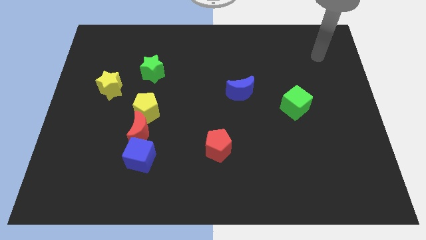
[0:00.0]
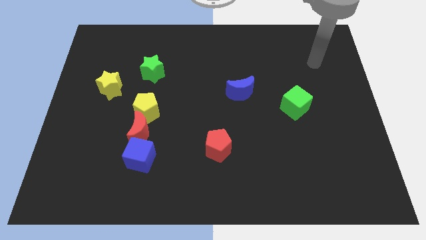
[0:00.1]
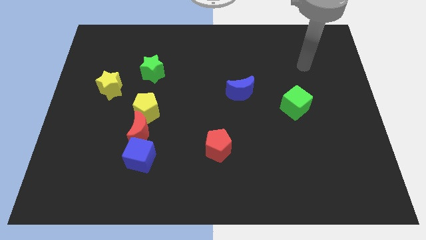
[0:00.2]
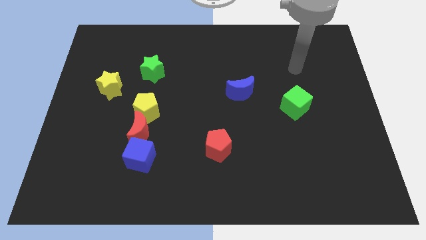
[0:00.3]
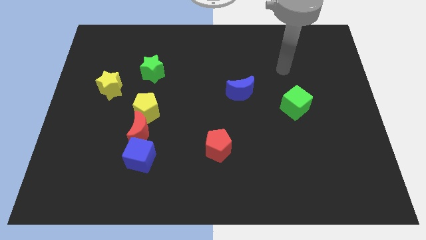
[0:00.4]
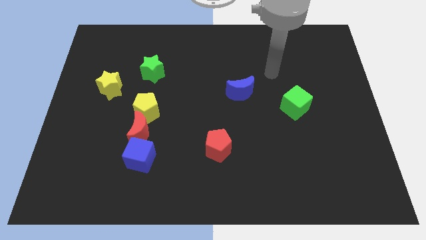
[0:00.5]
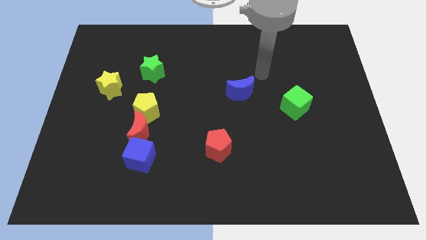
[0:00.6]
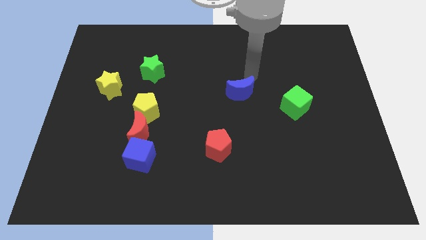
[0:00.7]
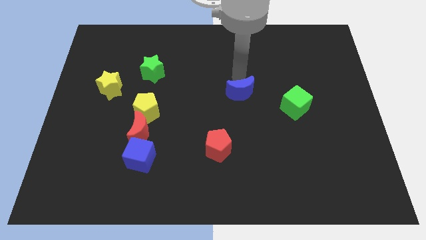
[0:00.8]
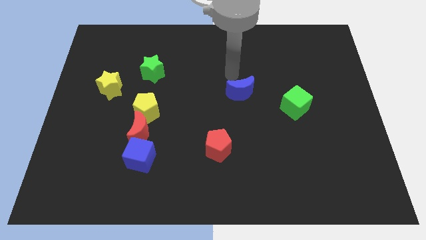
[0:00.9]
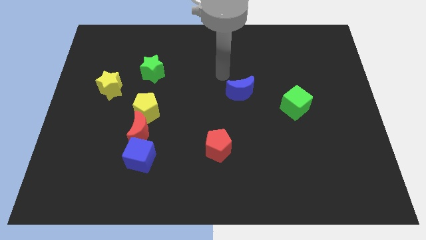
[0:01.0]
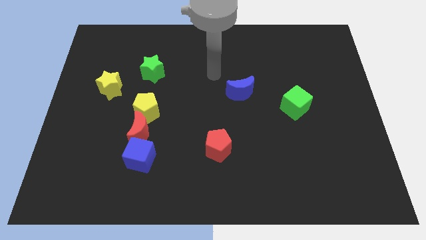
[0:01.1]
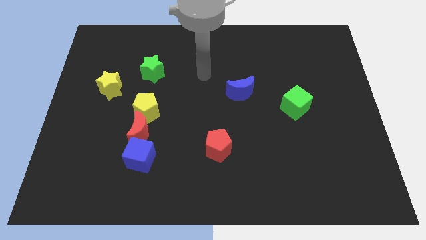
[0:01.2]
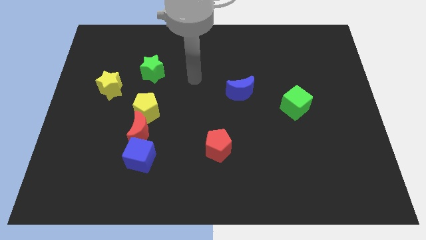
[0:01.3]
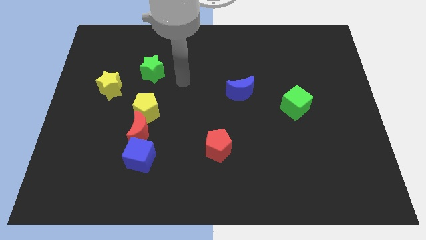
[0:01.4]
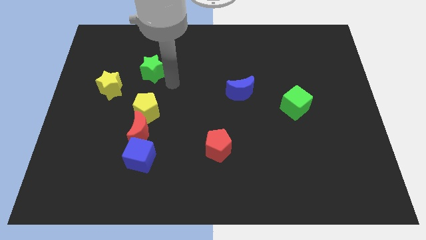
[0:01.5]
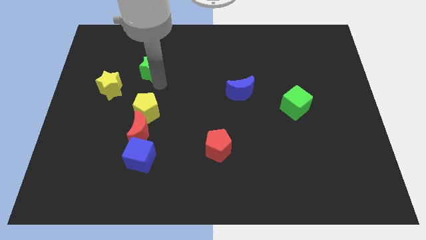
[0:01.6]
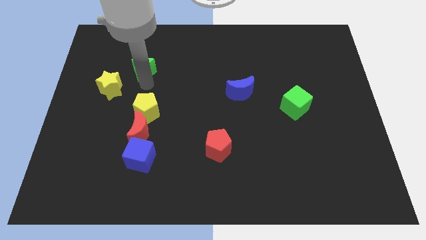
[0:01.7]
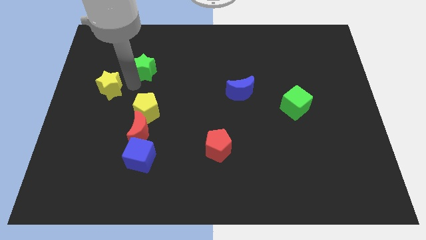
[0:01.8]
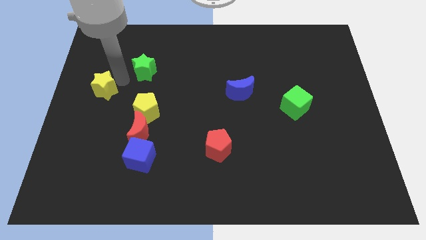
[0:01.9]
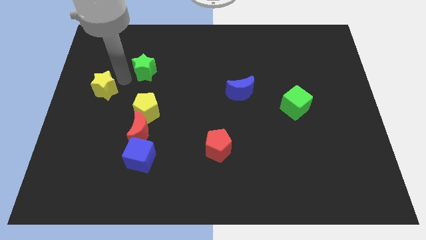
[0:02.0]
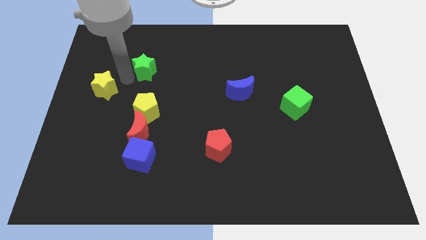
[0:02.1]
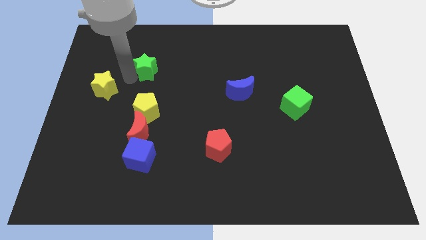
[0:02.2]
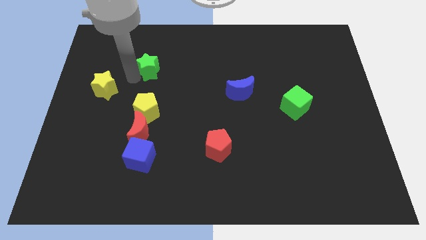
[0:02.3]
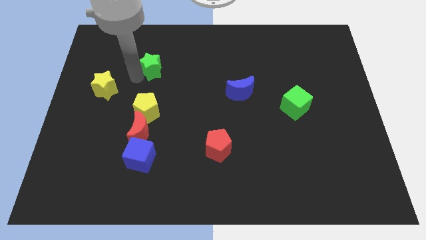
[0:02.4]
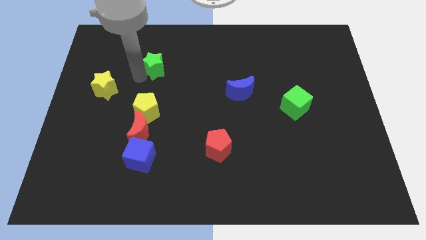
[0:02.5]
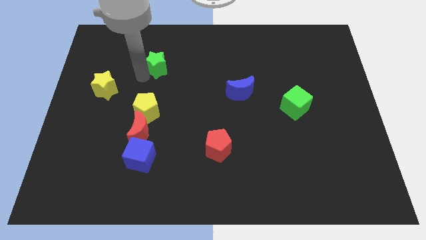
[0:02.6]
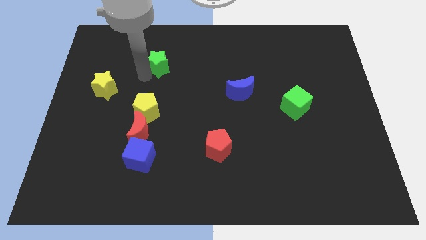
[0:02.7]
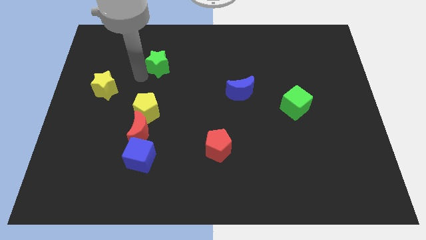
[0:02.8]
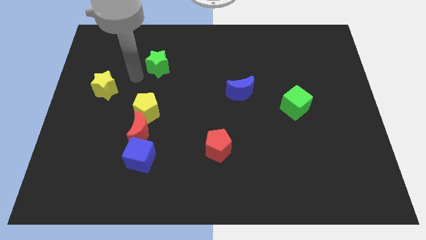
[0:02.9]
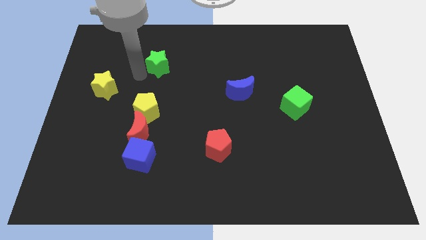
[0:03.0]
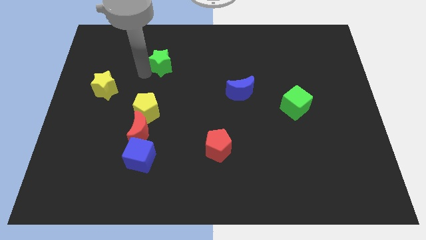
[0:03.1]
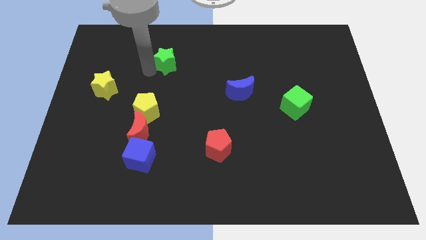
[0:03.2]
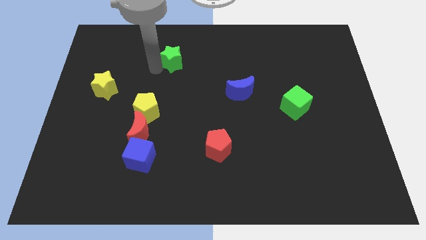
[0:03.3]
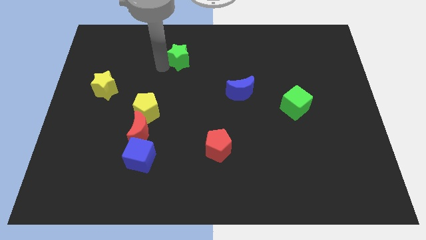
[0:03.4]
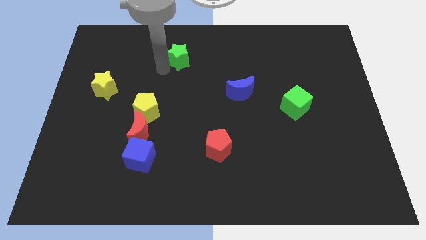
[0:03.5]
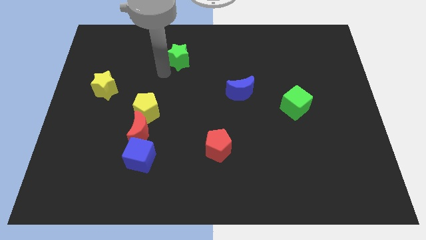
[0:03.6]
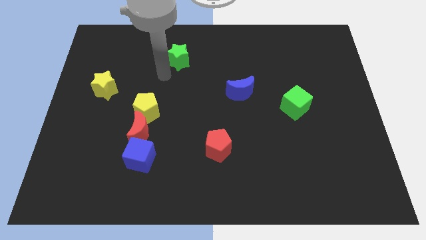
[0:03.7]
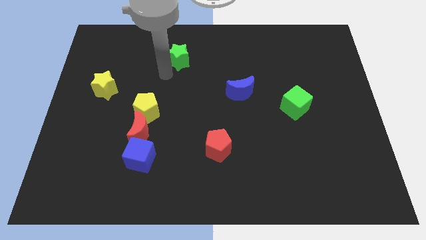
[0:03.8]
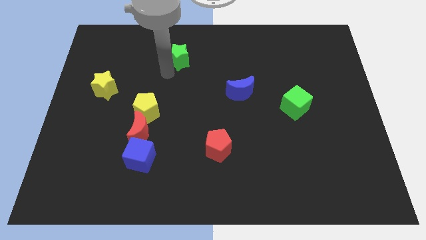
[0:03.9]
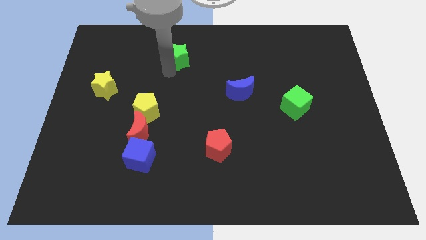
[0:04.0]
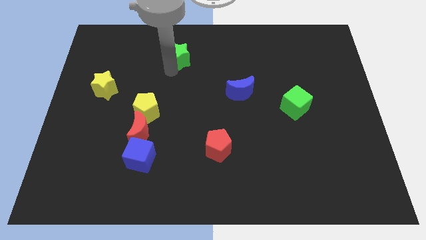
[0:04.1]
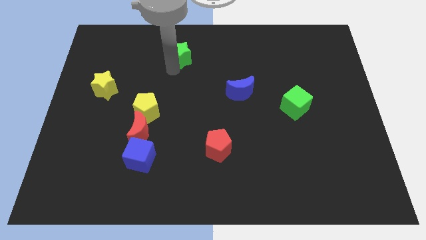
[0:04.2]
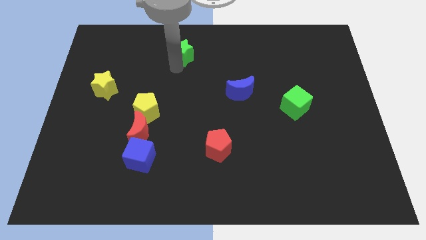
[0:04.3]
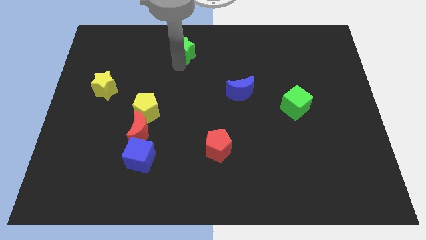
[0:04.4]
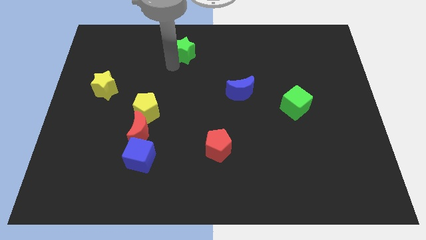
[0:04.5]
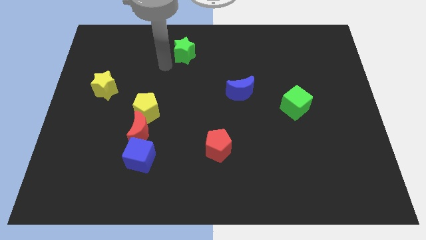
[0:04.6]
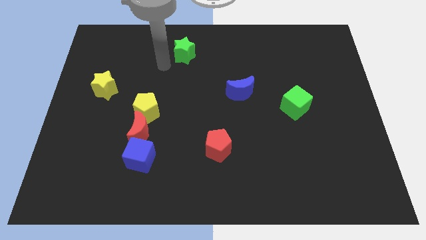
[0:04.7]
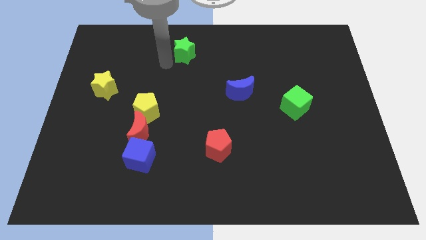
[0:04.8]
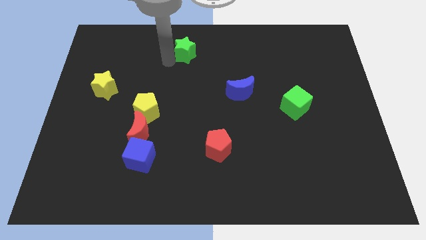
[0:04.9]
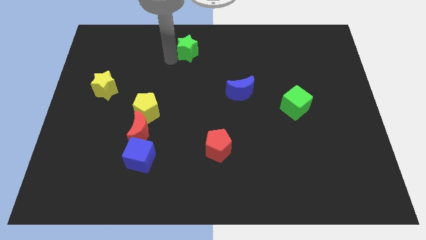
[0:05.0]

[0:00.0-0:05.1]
put the green star to the top side

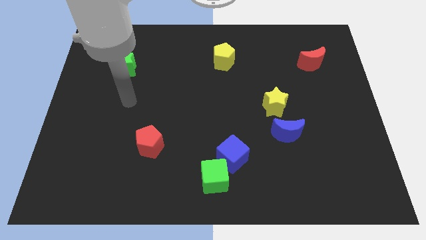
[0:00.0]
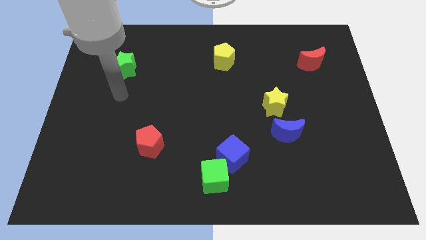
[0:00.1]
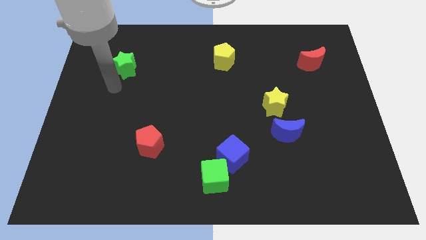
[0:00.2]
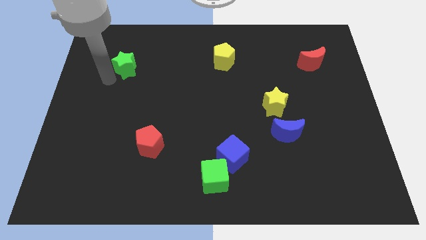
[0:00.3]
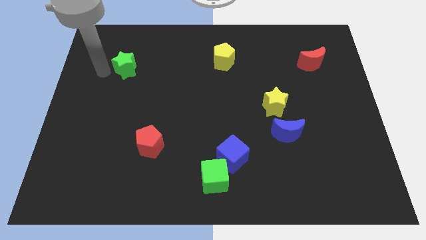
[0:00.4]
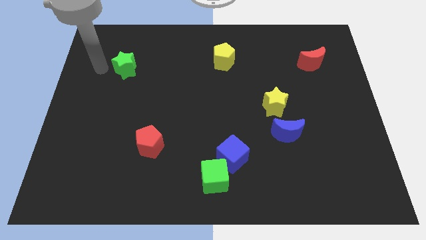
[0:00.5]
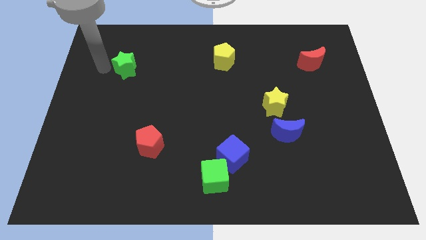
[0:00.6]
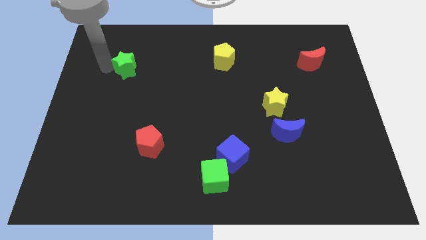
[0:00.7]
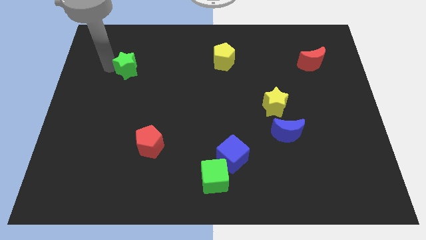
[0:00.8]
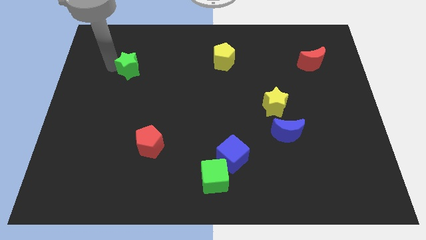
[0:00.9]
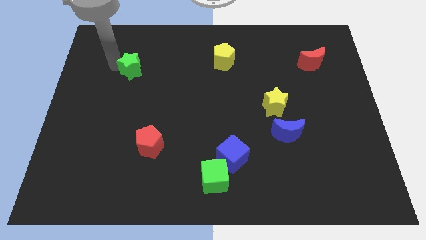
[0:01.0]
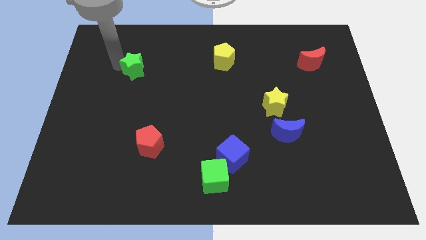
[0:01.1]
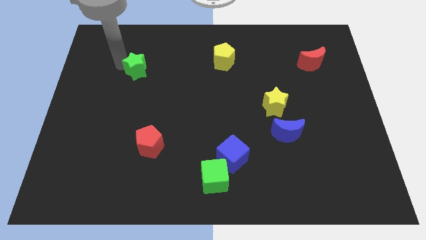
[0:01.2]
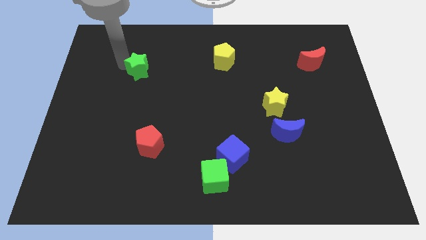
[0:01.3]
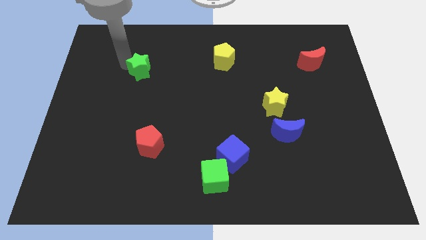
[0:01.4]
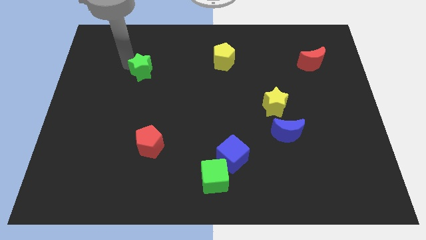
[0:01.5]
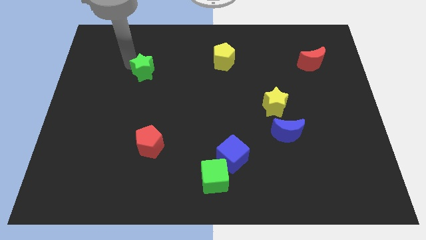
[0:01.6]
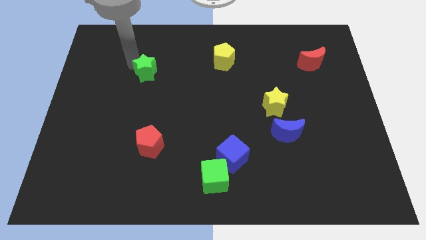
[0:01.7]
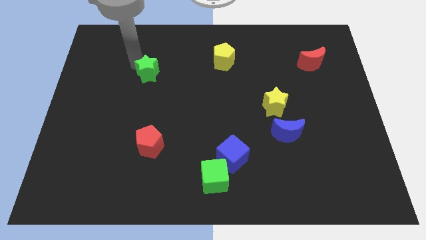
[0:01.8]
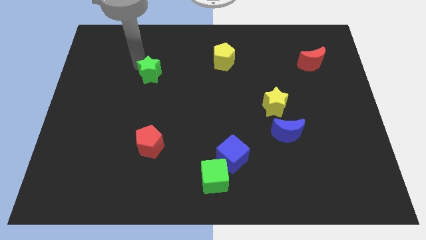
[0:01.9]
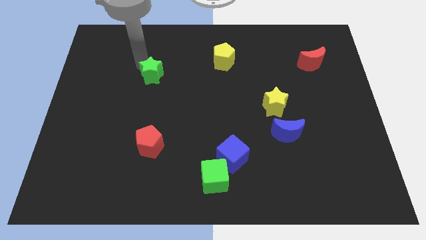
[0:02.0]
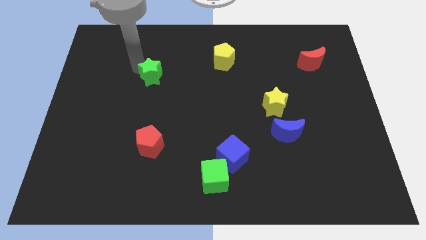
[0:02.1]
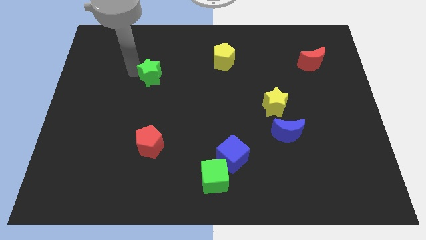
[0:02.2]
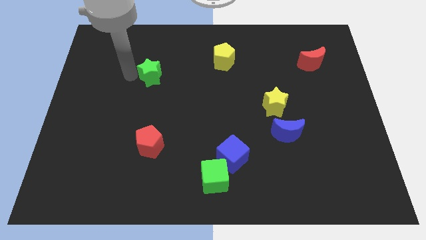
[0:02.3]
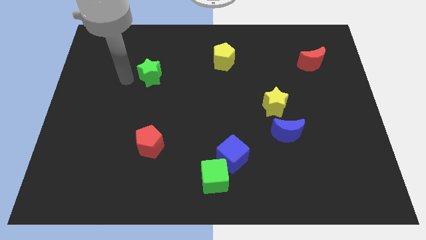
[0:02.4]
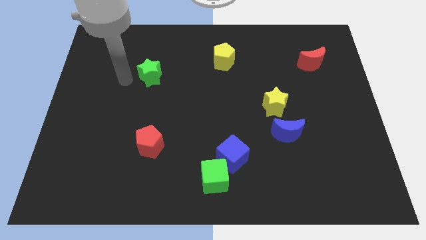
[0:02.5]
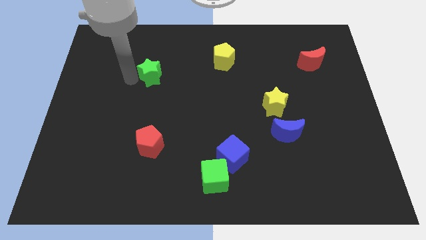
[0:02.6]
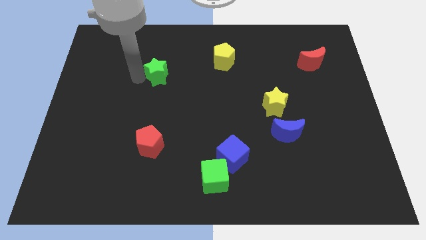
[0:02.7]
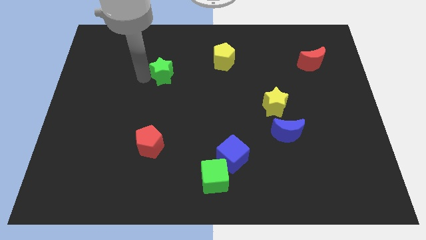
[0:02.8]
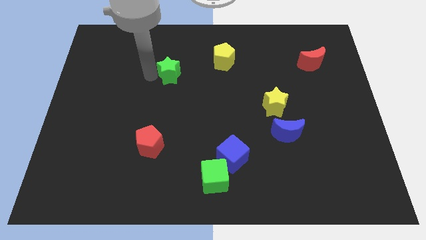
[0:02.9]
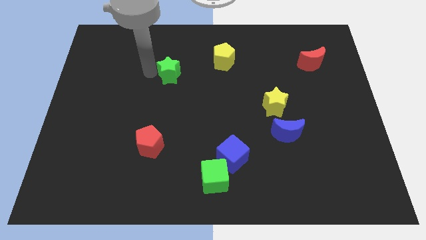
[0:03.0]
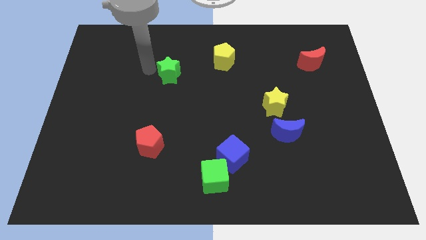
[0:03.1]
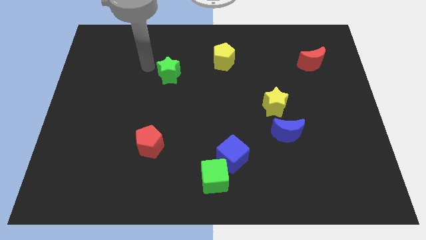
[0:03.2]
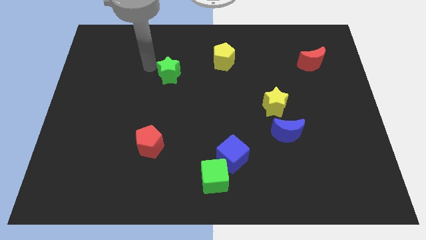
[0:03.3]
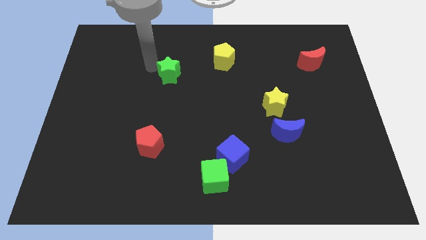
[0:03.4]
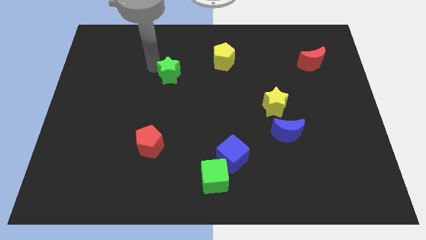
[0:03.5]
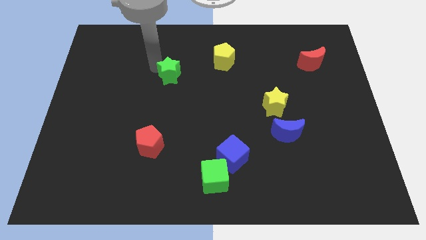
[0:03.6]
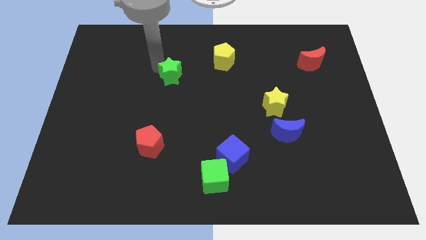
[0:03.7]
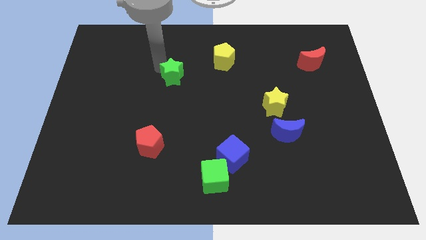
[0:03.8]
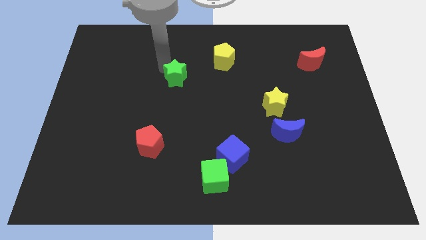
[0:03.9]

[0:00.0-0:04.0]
move the green star to the middle
